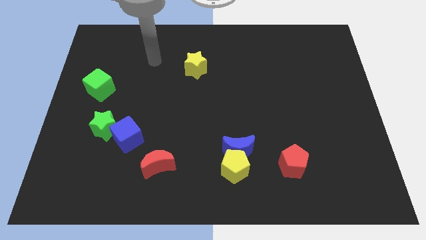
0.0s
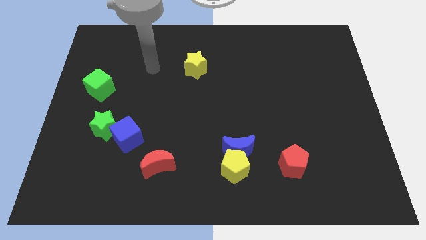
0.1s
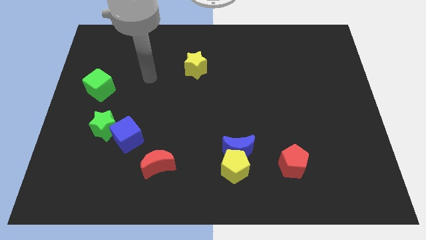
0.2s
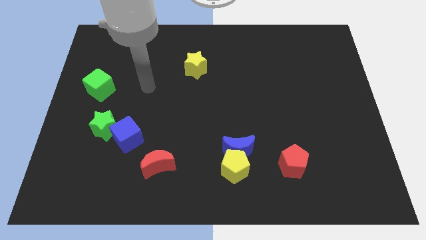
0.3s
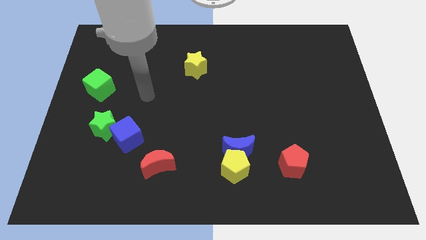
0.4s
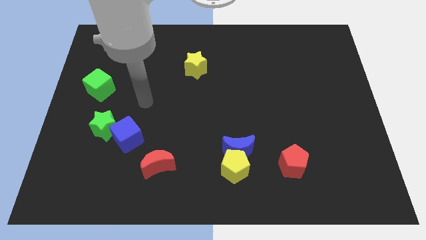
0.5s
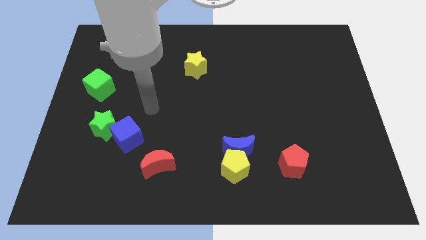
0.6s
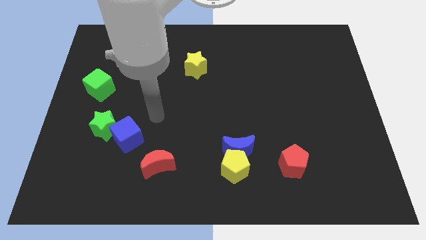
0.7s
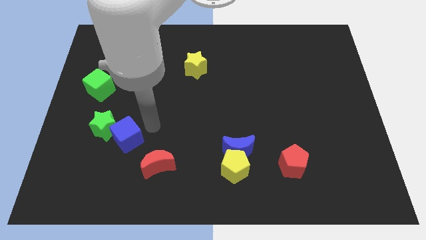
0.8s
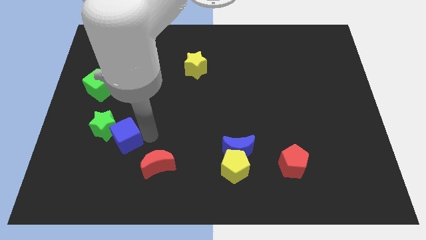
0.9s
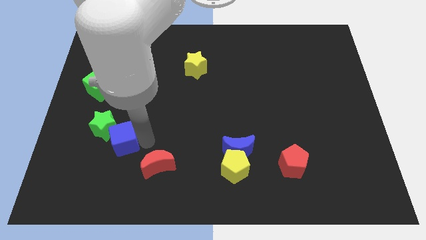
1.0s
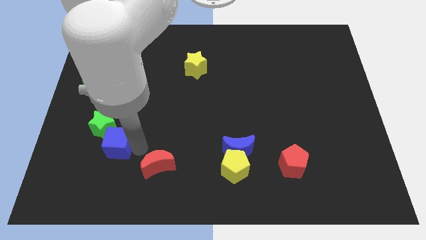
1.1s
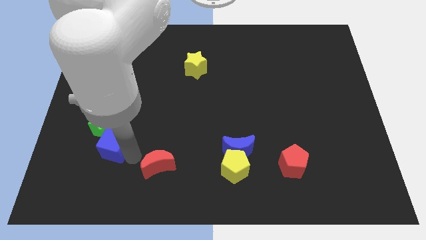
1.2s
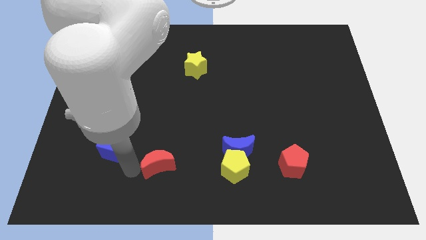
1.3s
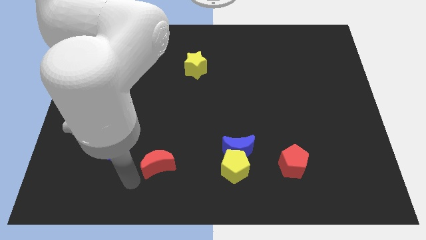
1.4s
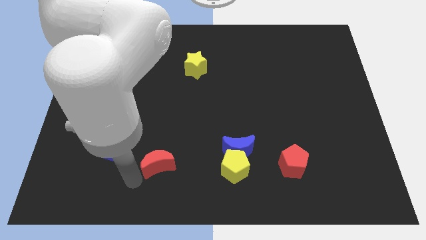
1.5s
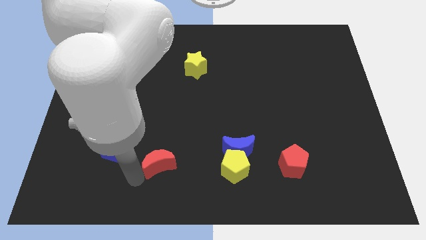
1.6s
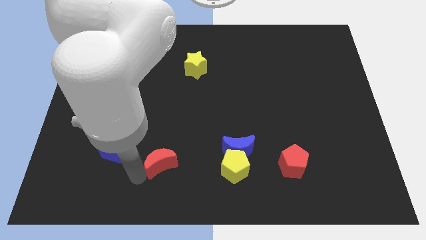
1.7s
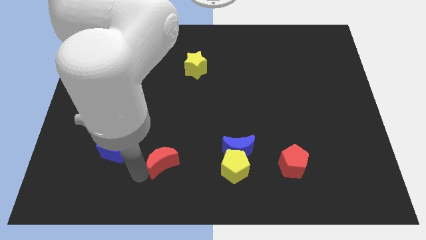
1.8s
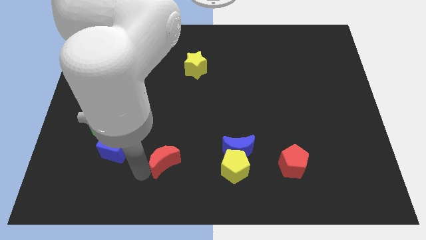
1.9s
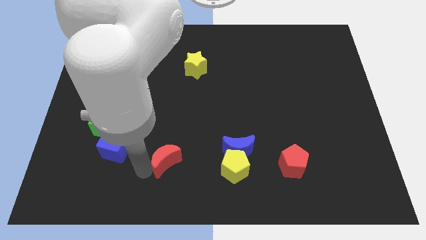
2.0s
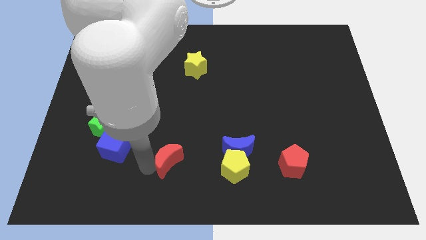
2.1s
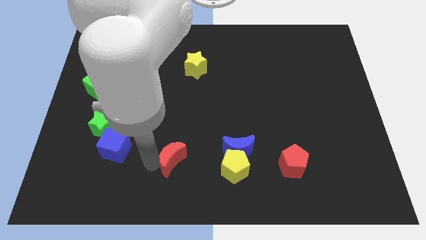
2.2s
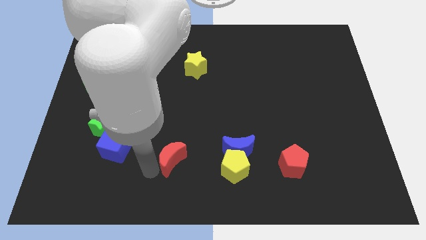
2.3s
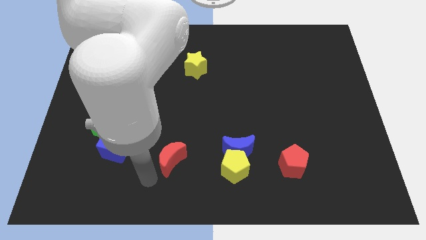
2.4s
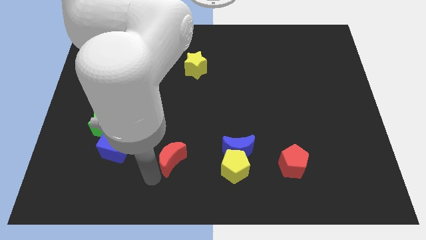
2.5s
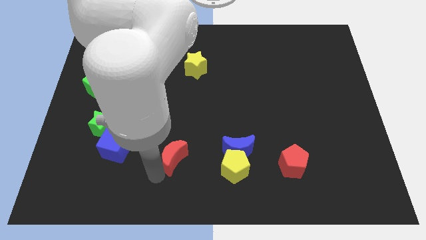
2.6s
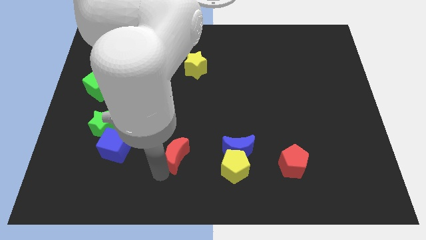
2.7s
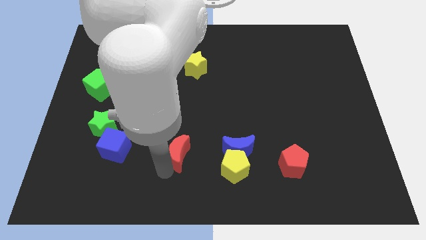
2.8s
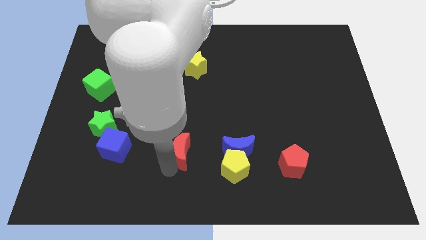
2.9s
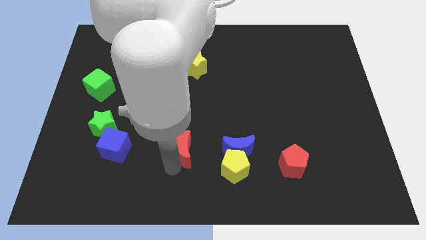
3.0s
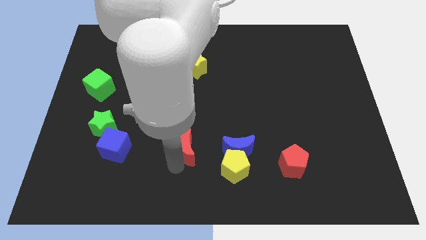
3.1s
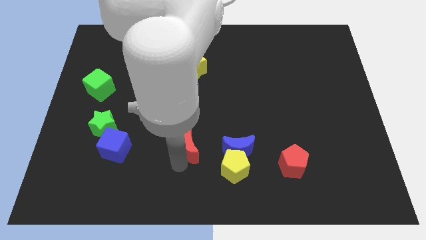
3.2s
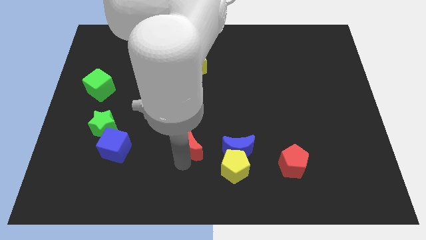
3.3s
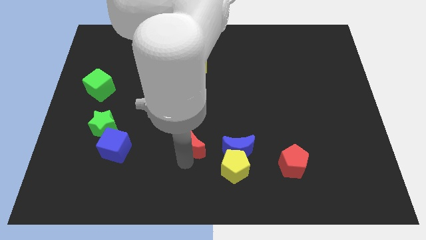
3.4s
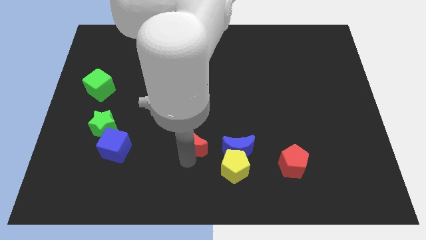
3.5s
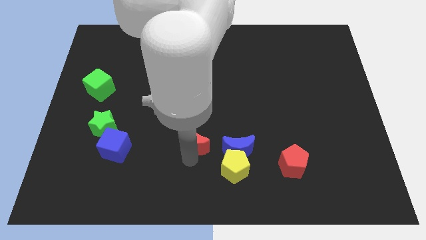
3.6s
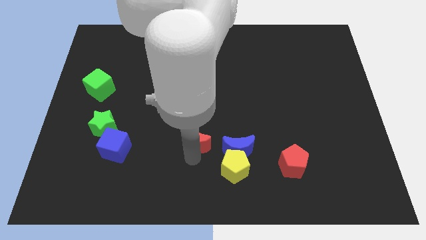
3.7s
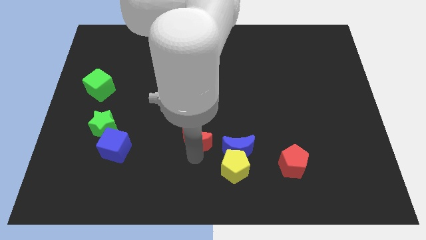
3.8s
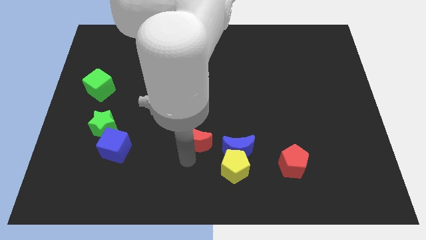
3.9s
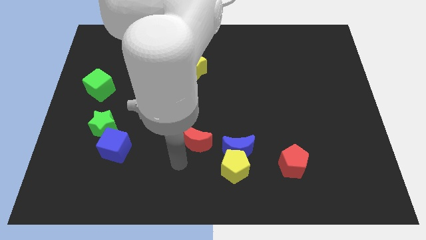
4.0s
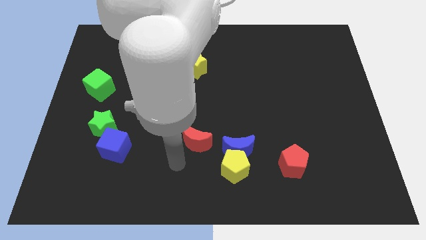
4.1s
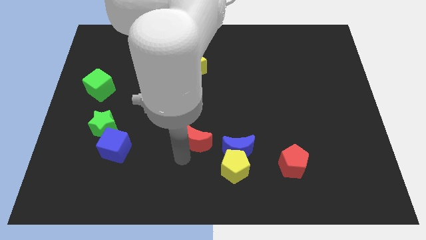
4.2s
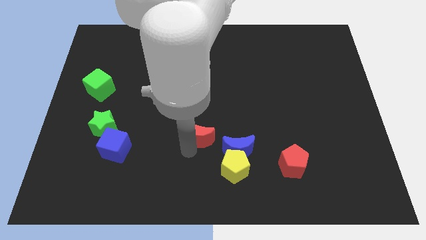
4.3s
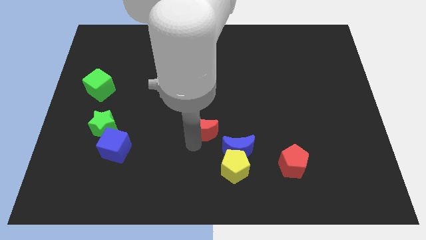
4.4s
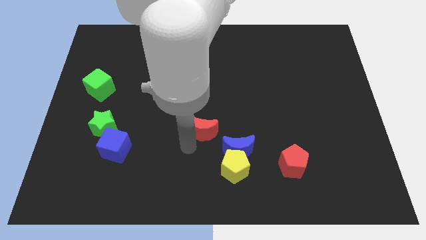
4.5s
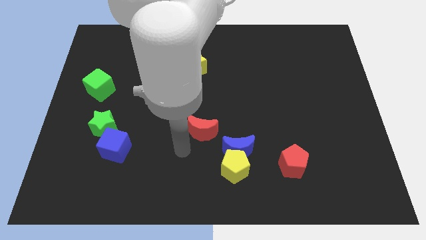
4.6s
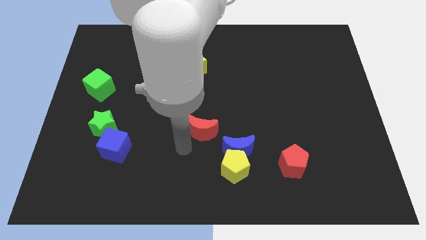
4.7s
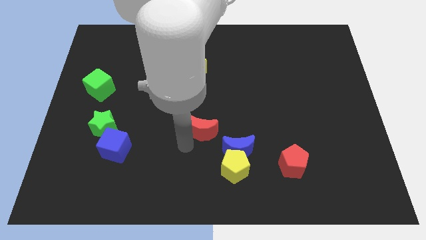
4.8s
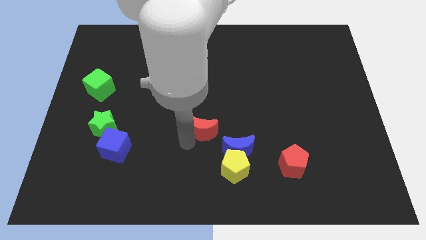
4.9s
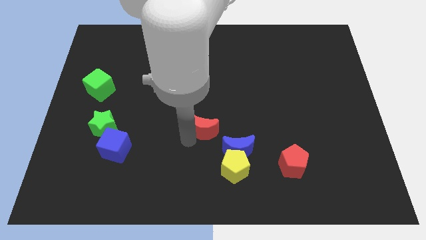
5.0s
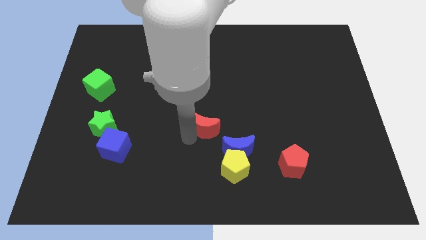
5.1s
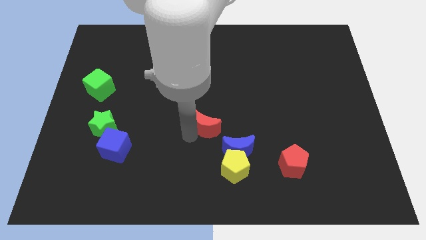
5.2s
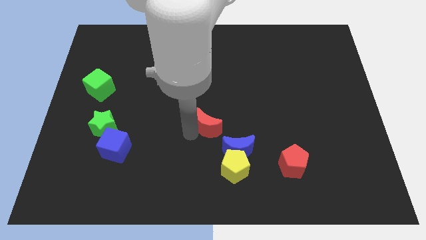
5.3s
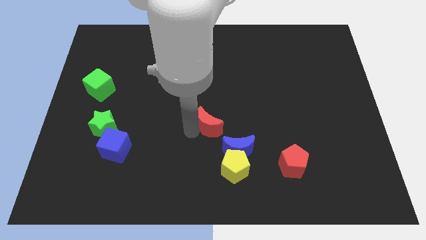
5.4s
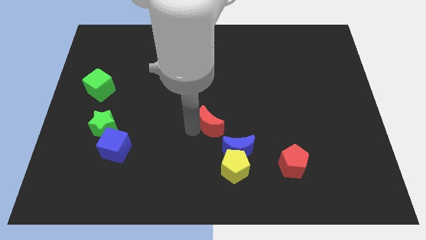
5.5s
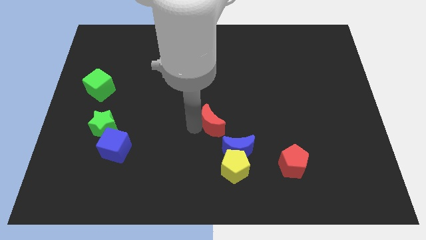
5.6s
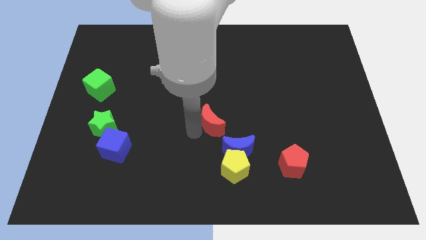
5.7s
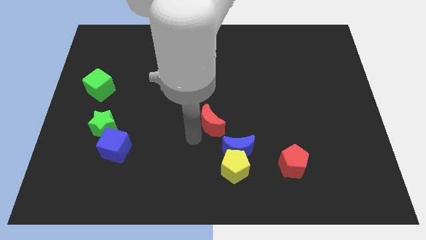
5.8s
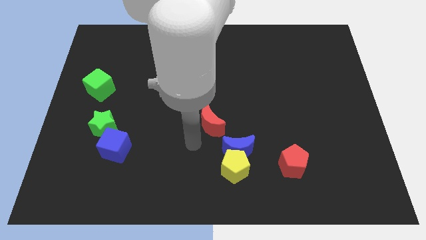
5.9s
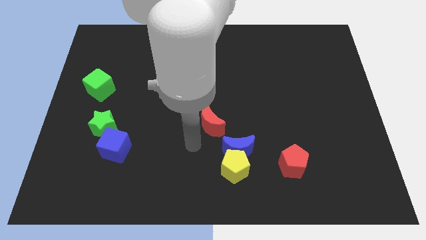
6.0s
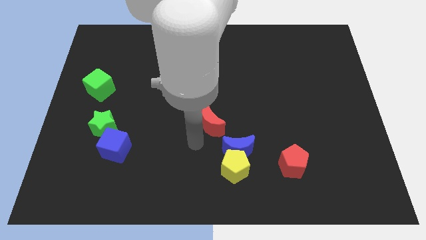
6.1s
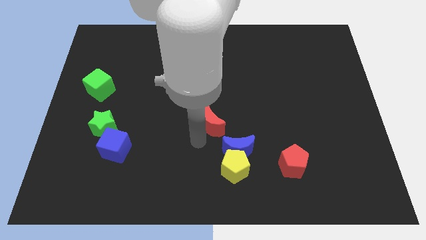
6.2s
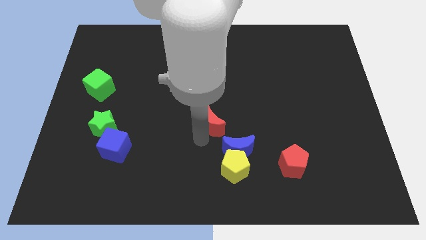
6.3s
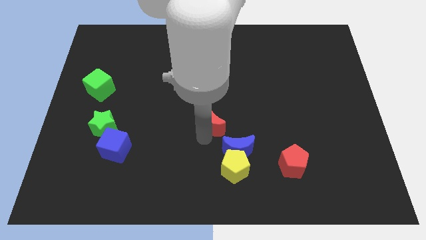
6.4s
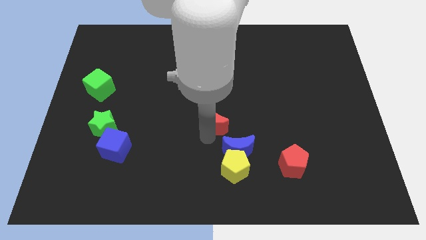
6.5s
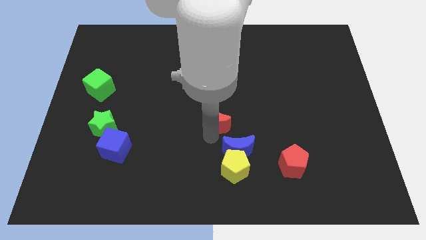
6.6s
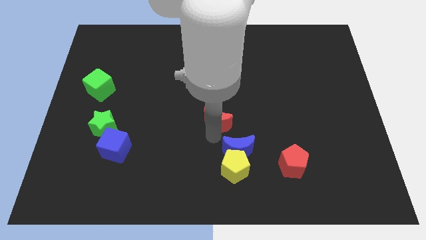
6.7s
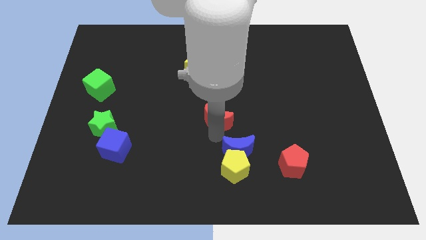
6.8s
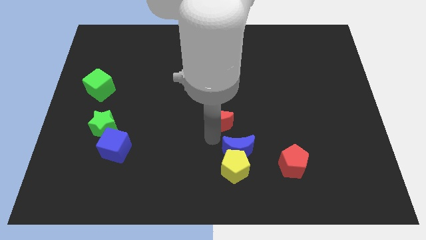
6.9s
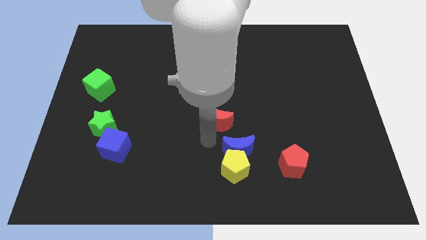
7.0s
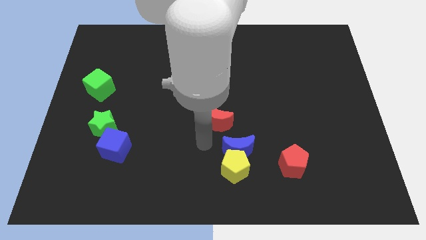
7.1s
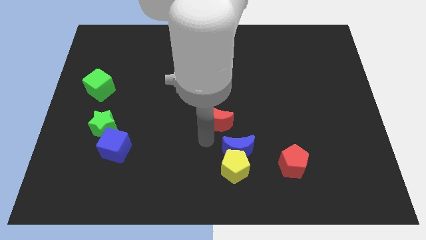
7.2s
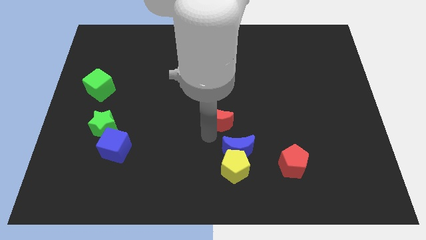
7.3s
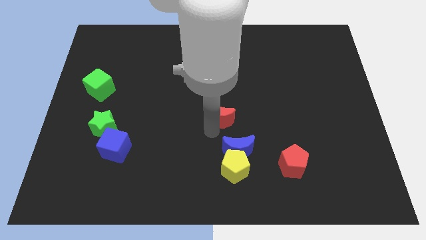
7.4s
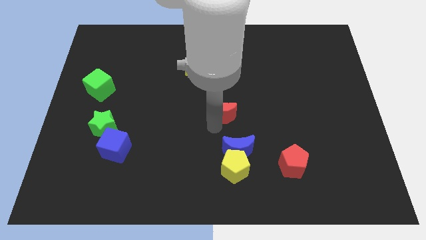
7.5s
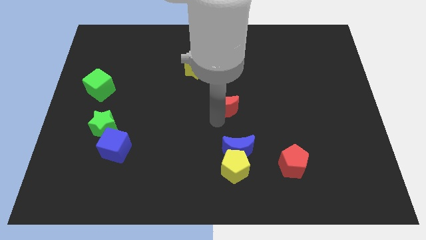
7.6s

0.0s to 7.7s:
slide the red moon diagonally up and right

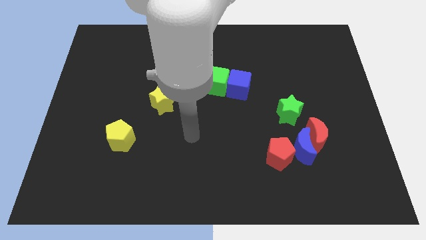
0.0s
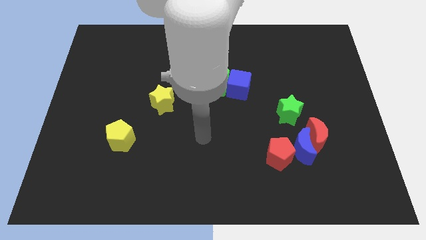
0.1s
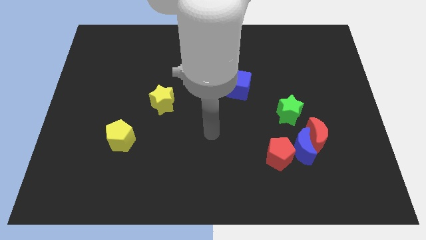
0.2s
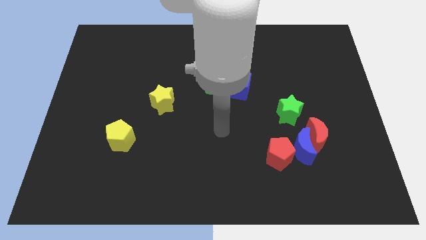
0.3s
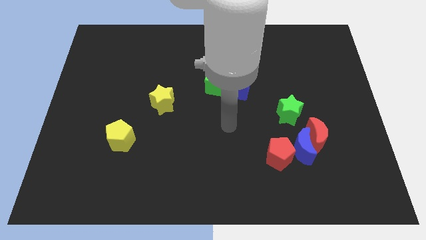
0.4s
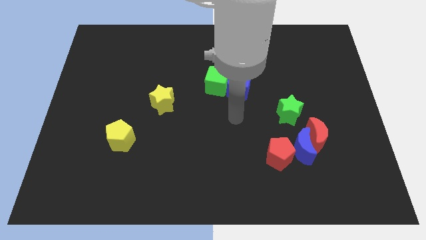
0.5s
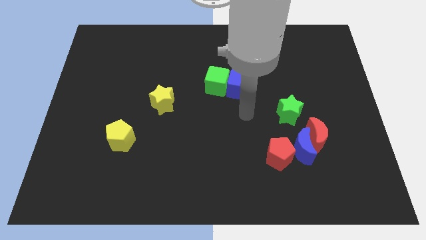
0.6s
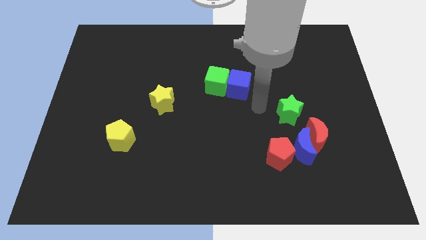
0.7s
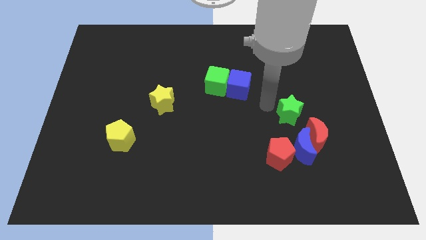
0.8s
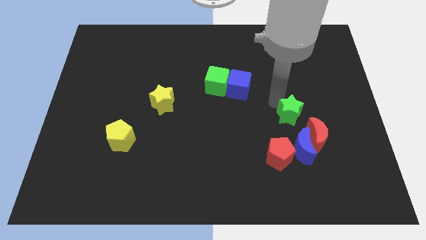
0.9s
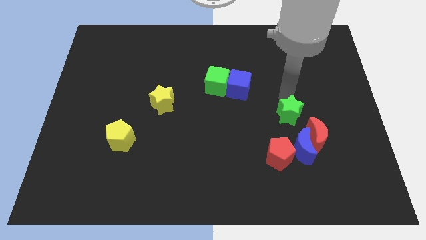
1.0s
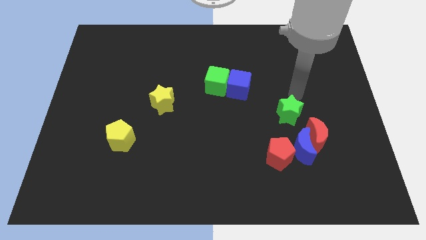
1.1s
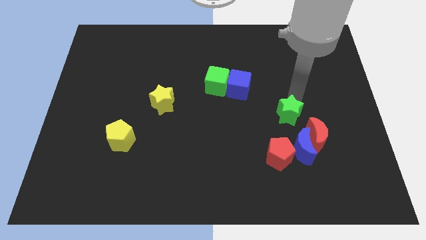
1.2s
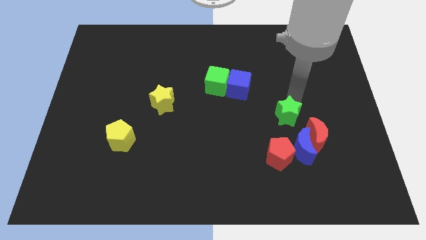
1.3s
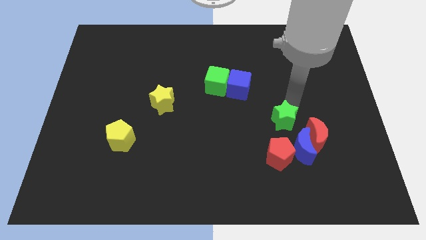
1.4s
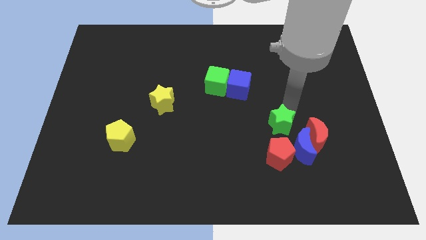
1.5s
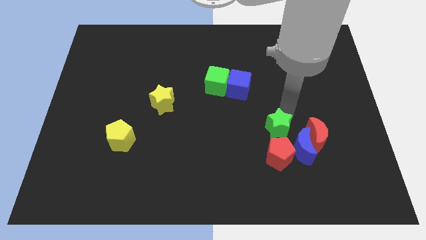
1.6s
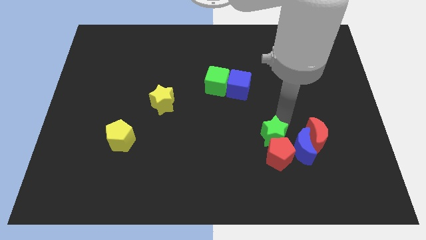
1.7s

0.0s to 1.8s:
push the green star diagonally down and left slightly
